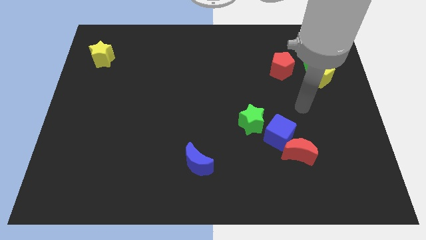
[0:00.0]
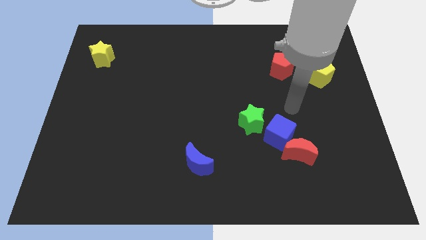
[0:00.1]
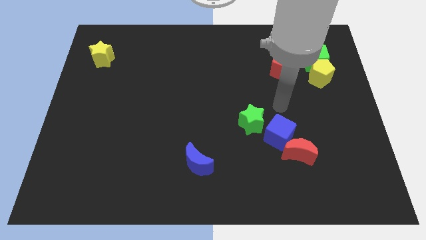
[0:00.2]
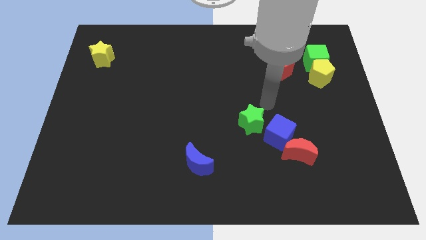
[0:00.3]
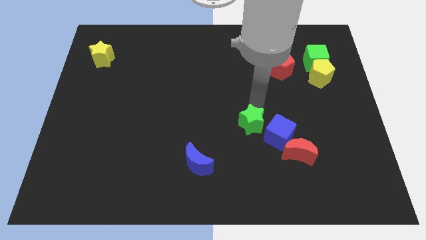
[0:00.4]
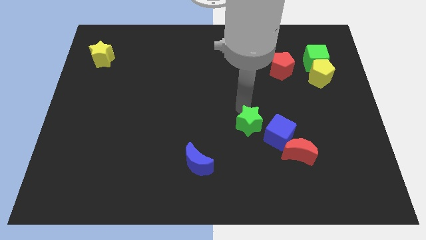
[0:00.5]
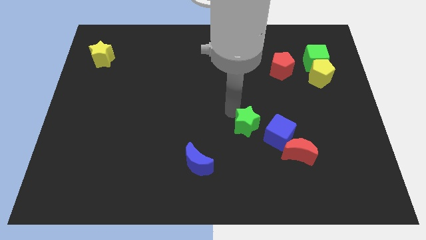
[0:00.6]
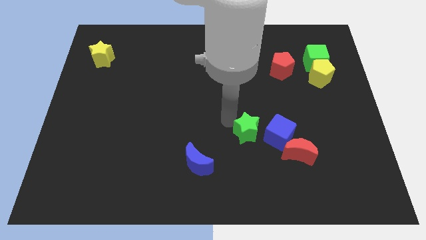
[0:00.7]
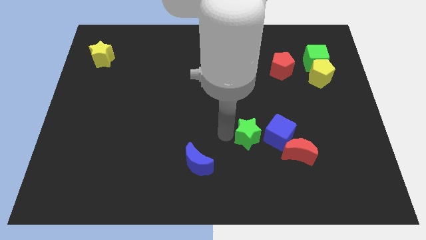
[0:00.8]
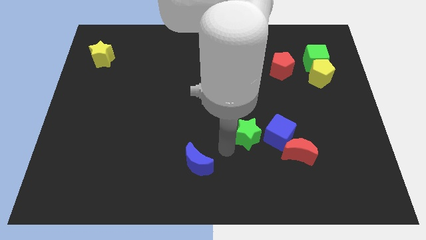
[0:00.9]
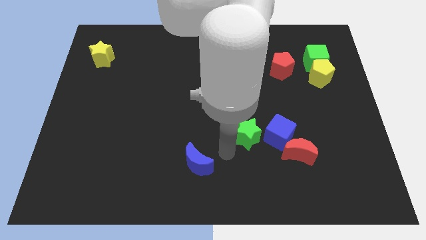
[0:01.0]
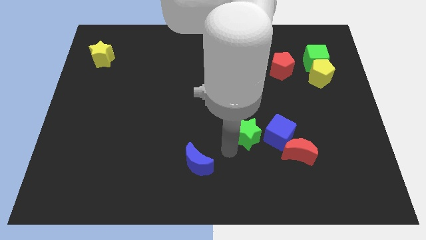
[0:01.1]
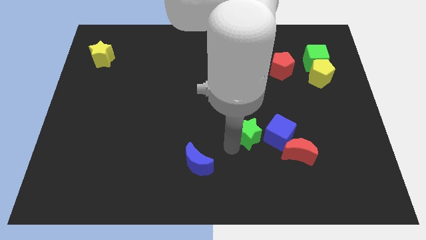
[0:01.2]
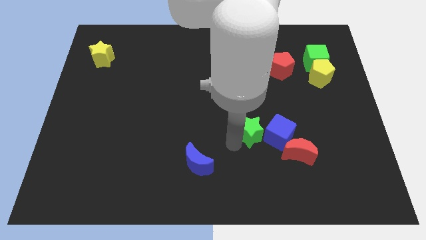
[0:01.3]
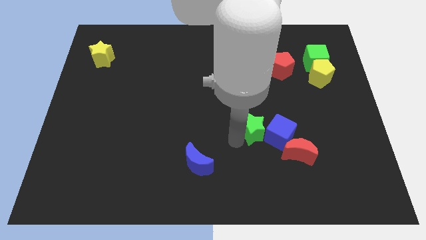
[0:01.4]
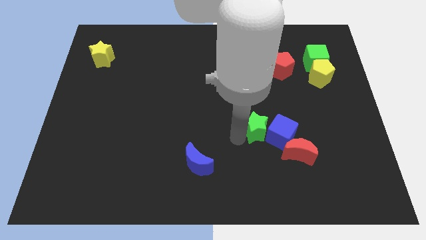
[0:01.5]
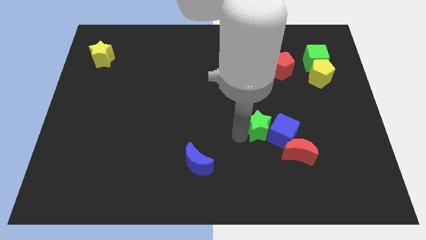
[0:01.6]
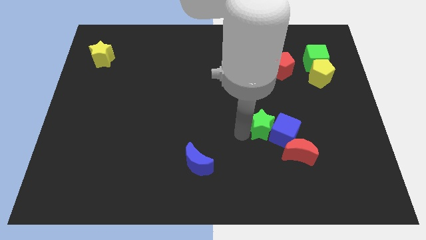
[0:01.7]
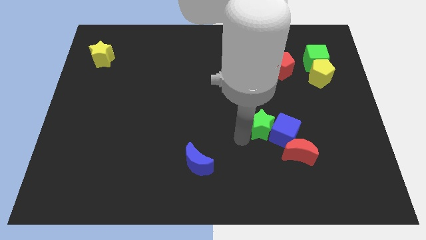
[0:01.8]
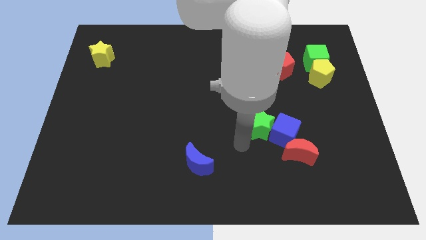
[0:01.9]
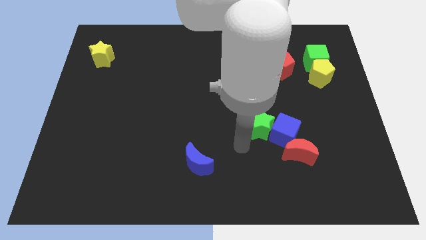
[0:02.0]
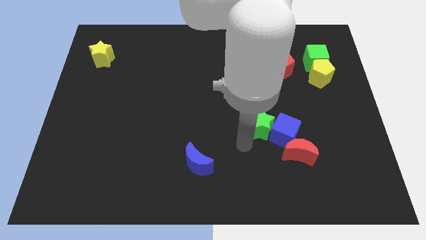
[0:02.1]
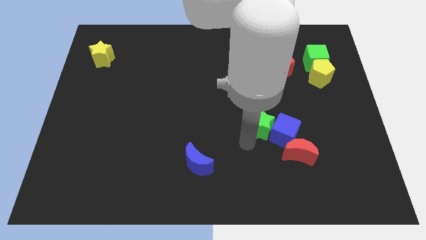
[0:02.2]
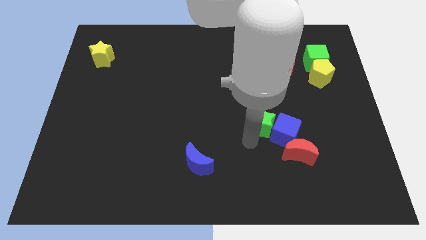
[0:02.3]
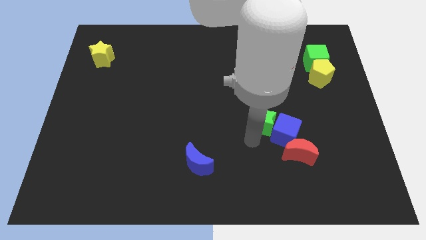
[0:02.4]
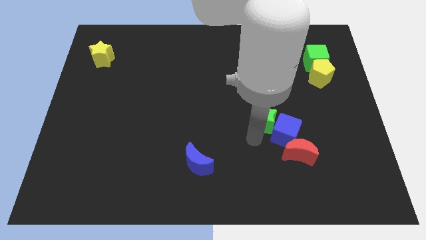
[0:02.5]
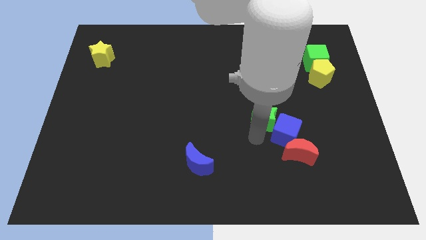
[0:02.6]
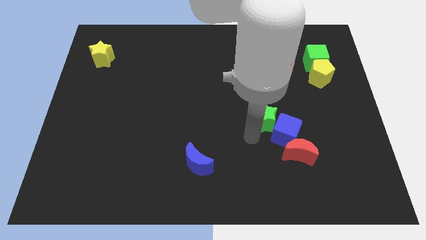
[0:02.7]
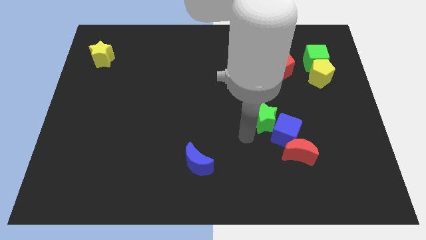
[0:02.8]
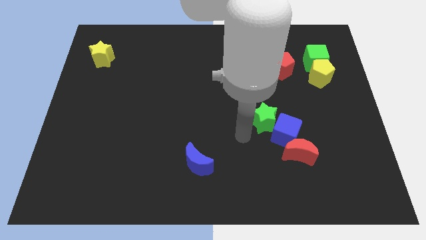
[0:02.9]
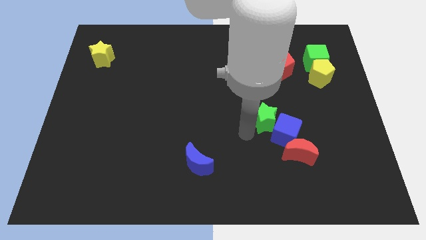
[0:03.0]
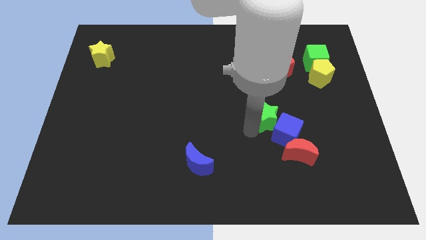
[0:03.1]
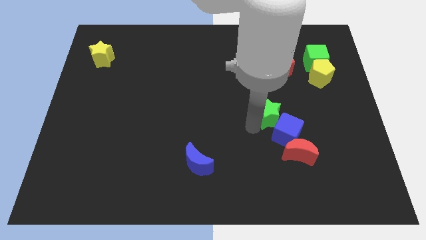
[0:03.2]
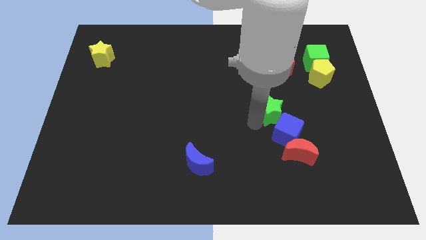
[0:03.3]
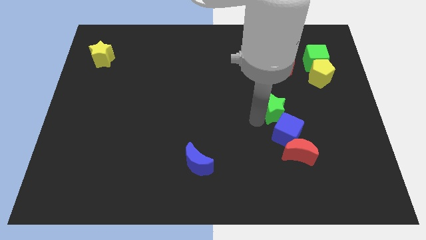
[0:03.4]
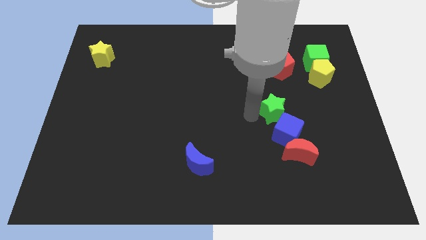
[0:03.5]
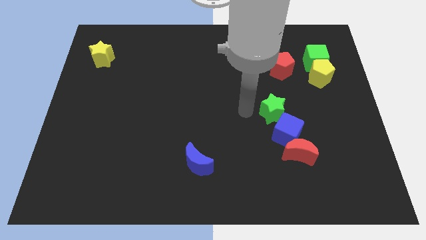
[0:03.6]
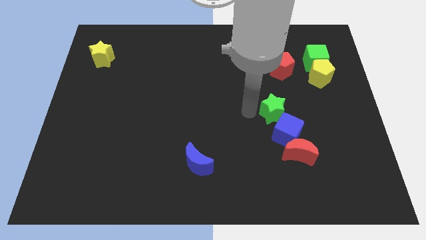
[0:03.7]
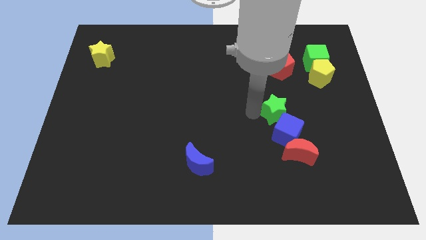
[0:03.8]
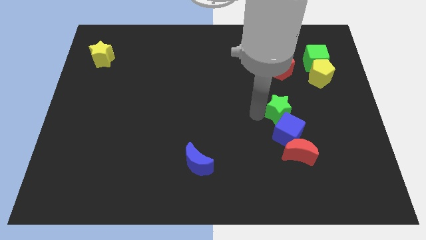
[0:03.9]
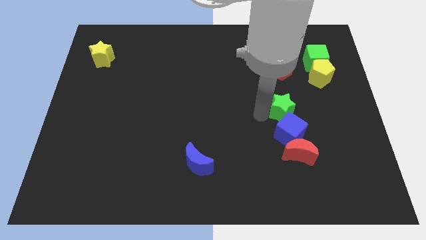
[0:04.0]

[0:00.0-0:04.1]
slightly push the green star right

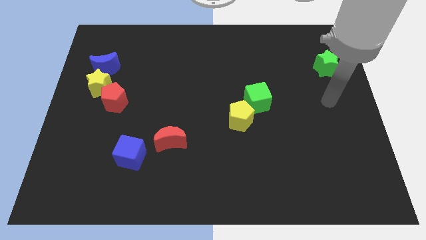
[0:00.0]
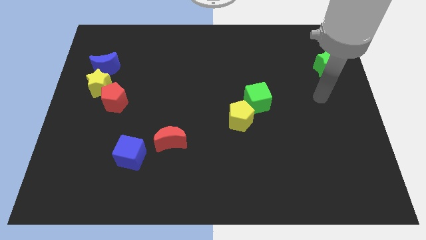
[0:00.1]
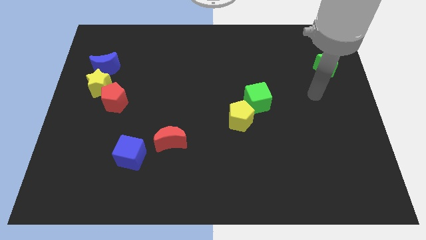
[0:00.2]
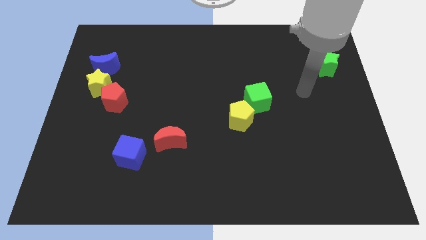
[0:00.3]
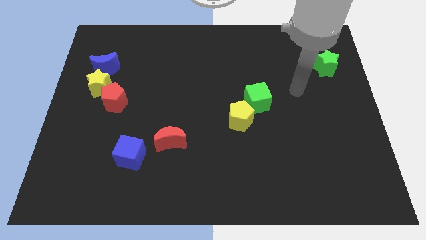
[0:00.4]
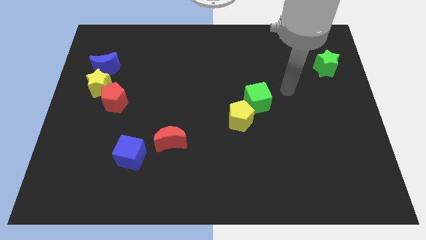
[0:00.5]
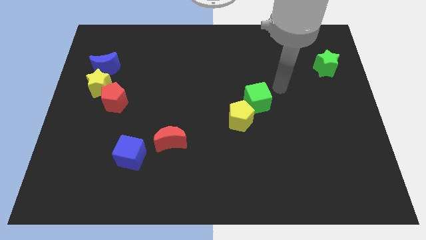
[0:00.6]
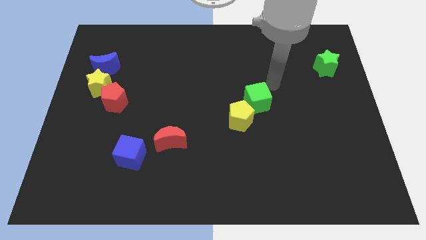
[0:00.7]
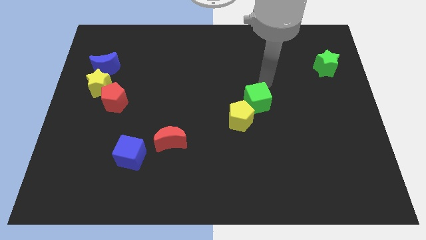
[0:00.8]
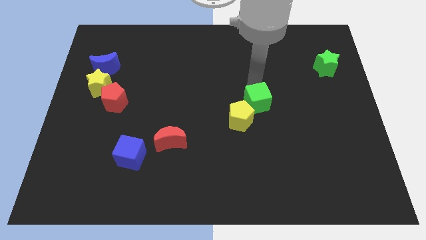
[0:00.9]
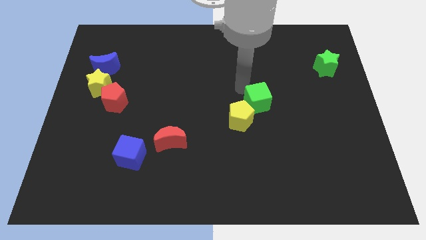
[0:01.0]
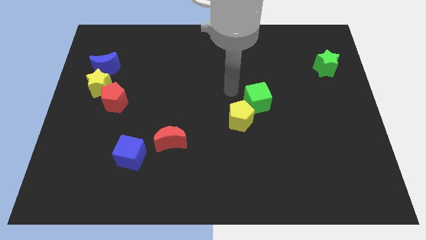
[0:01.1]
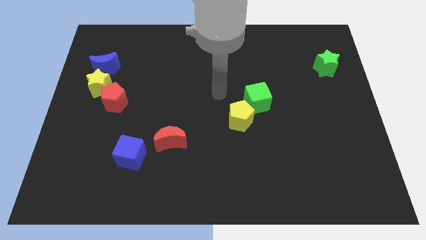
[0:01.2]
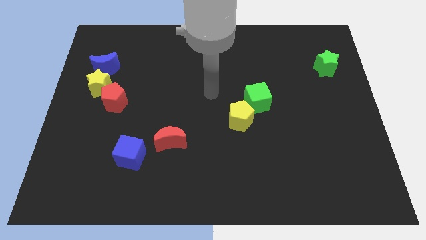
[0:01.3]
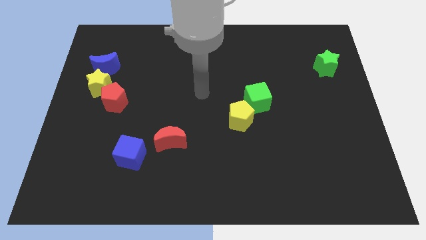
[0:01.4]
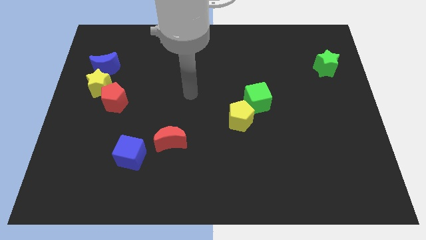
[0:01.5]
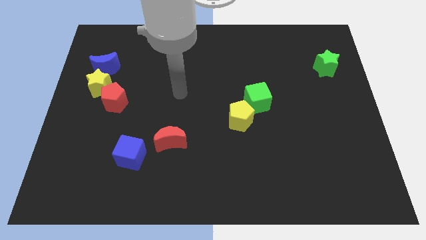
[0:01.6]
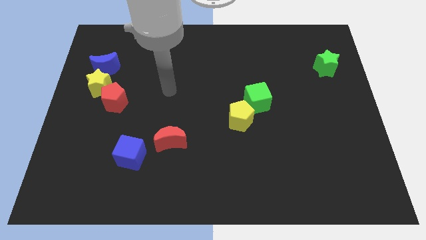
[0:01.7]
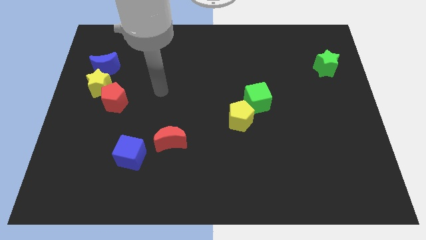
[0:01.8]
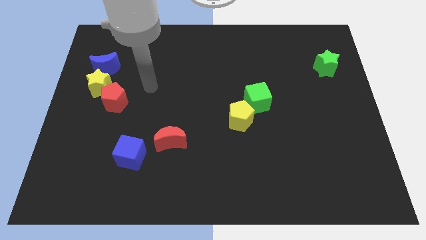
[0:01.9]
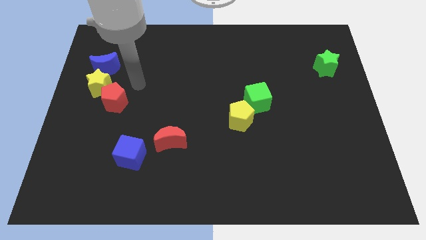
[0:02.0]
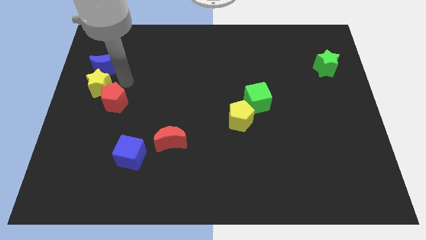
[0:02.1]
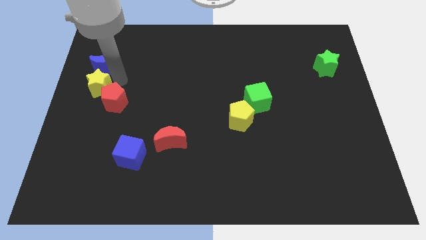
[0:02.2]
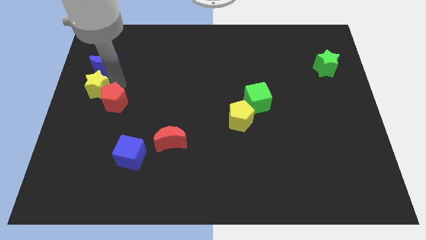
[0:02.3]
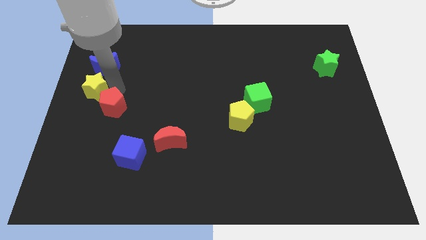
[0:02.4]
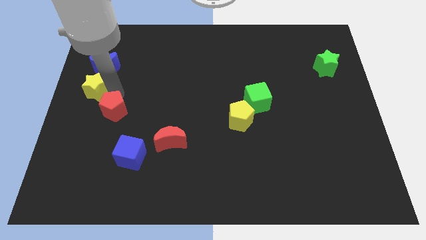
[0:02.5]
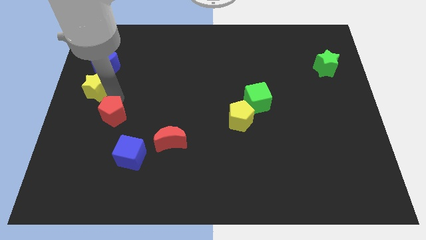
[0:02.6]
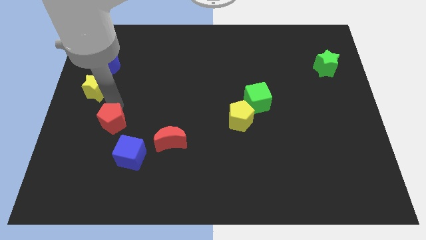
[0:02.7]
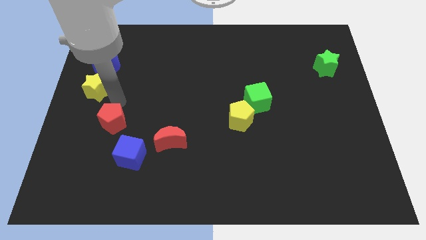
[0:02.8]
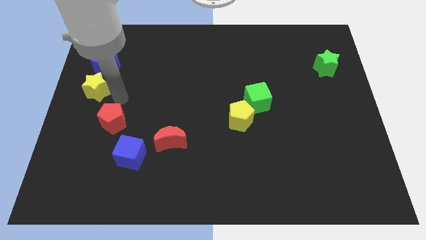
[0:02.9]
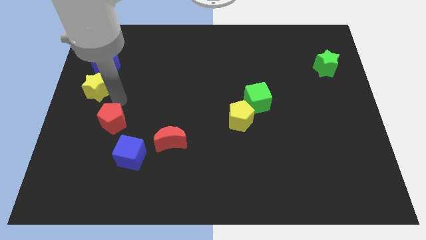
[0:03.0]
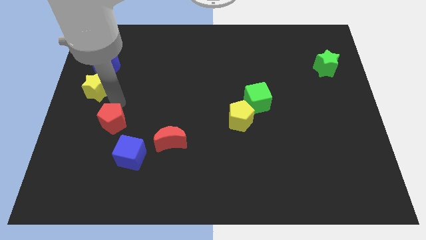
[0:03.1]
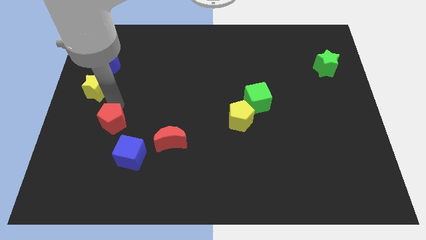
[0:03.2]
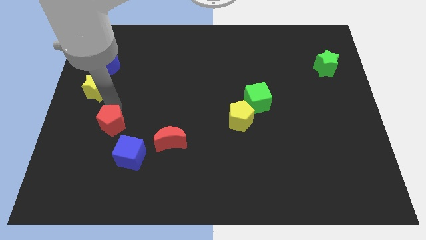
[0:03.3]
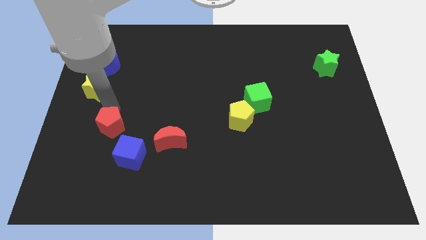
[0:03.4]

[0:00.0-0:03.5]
slide the red pentagon a little downwards

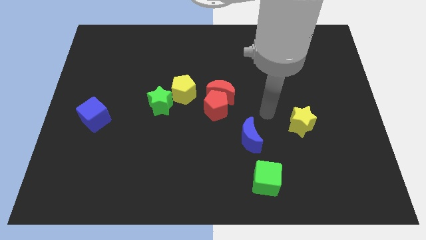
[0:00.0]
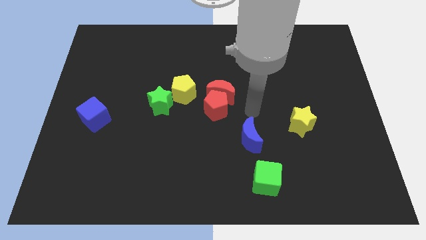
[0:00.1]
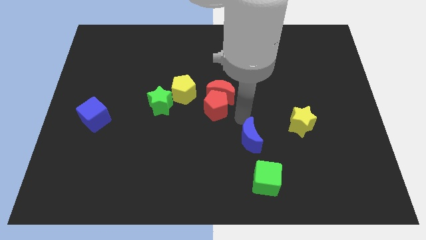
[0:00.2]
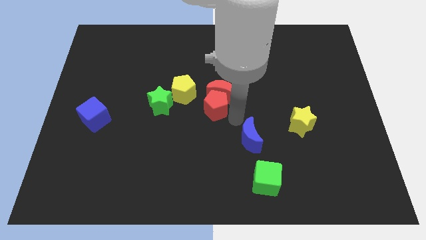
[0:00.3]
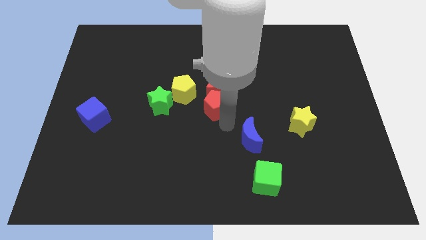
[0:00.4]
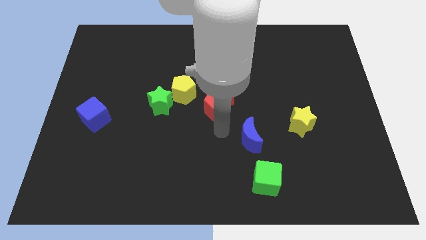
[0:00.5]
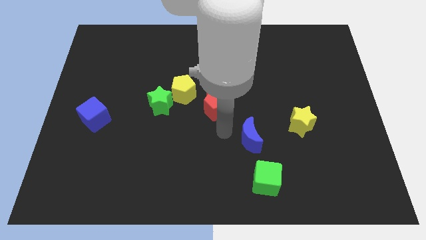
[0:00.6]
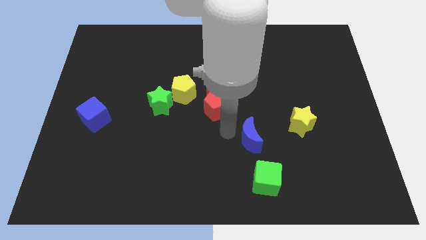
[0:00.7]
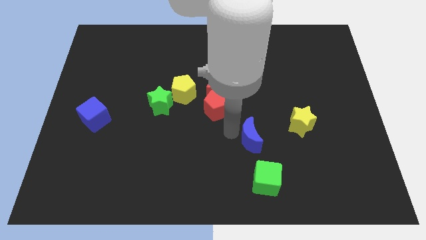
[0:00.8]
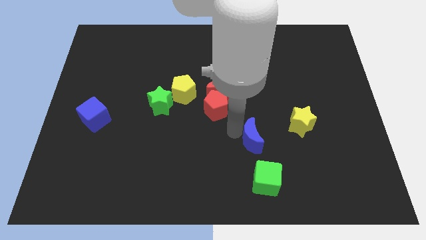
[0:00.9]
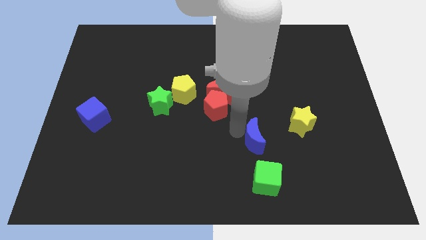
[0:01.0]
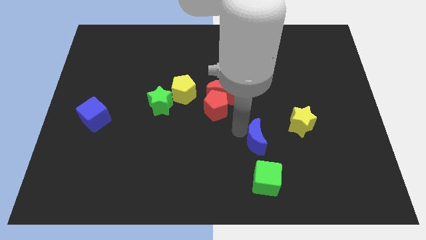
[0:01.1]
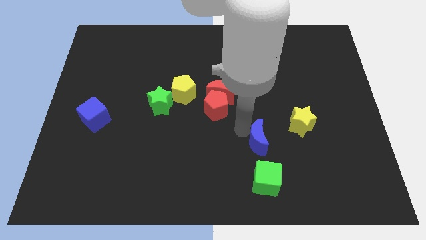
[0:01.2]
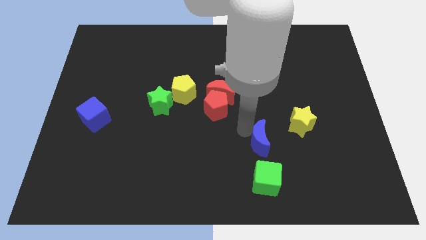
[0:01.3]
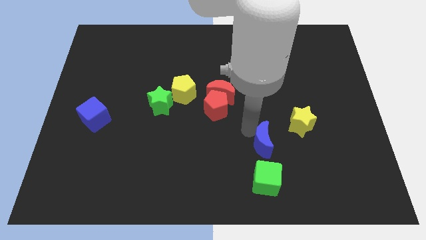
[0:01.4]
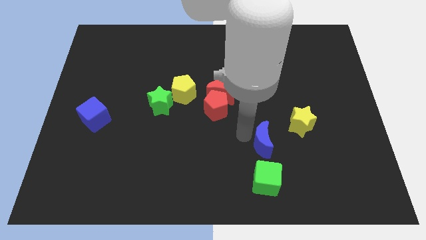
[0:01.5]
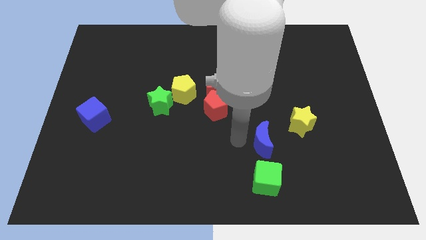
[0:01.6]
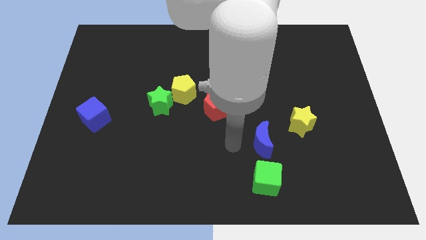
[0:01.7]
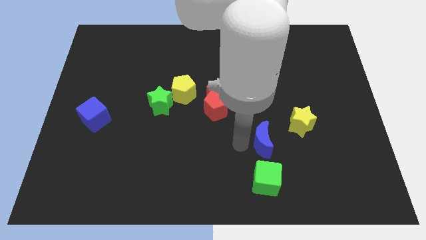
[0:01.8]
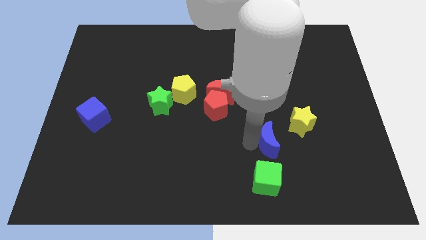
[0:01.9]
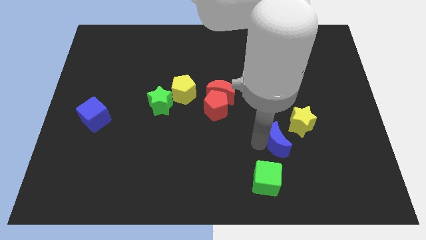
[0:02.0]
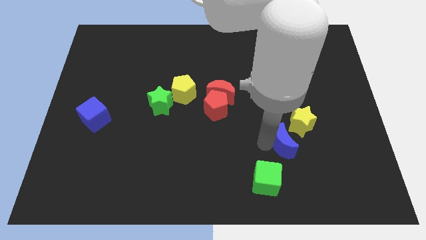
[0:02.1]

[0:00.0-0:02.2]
slightly slide the blue moon right
